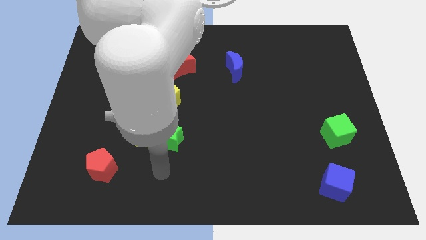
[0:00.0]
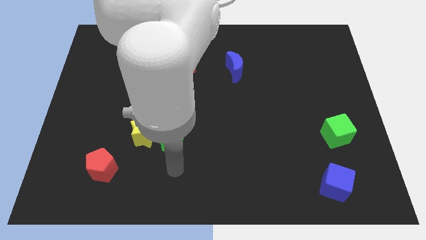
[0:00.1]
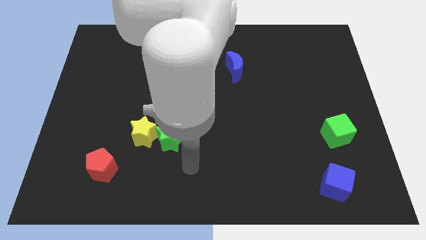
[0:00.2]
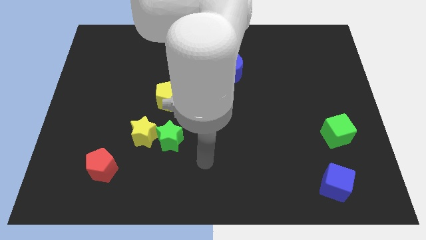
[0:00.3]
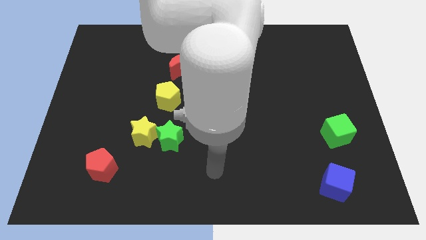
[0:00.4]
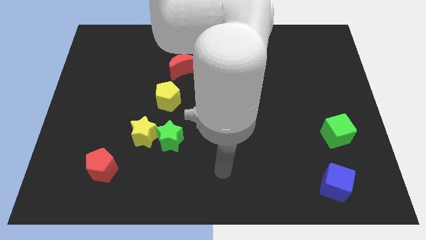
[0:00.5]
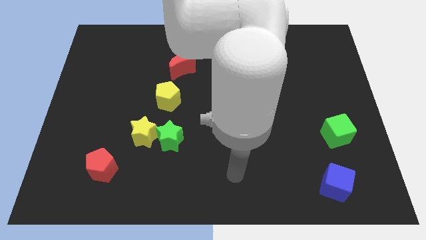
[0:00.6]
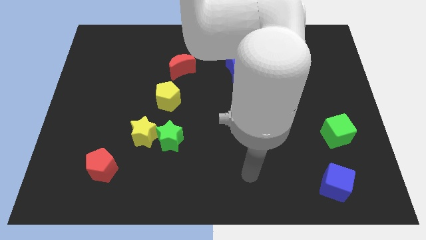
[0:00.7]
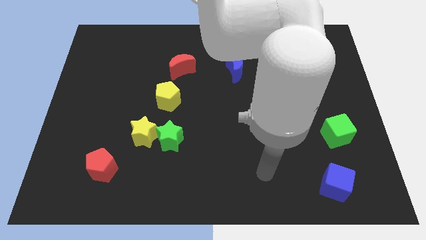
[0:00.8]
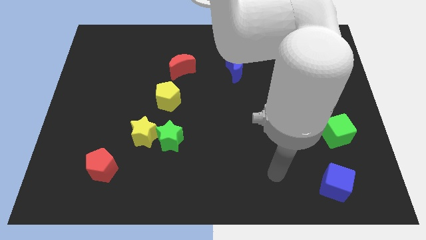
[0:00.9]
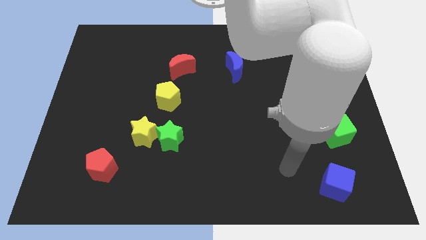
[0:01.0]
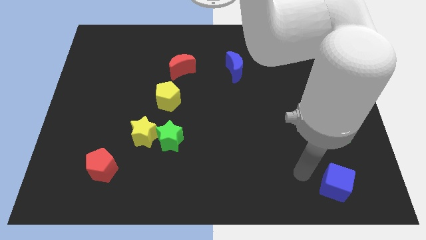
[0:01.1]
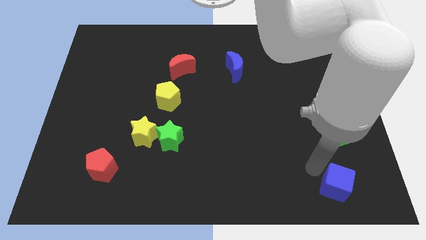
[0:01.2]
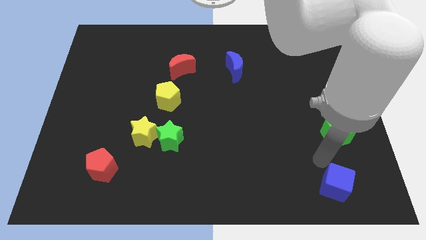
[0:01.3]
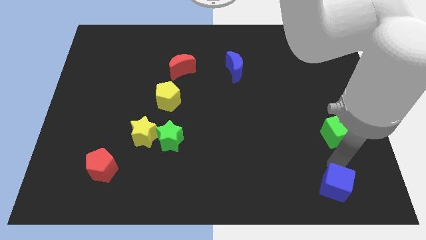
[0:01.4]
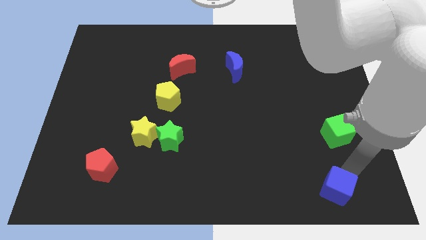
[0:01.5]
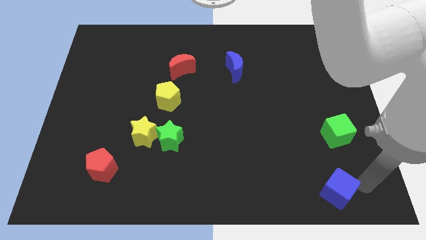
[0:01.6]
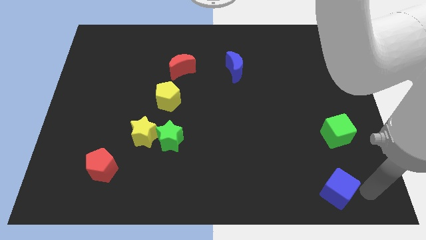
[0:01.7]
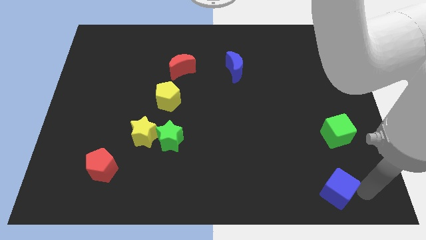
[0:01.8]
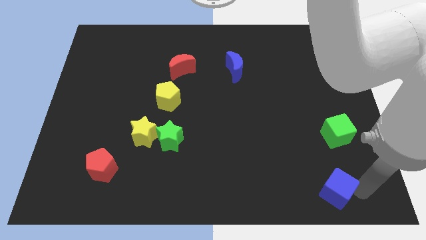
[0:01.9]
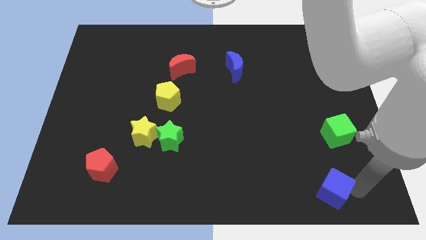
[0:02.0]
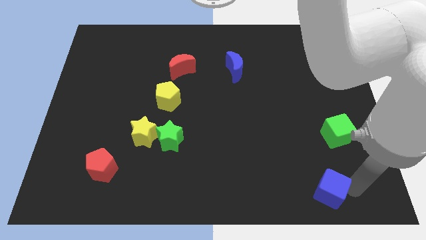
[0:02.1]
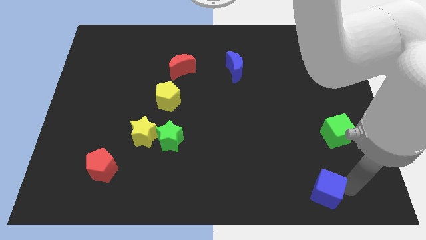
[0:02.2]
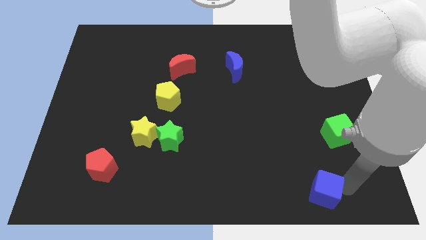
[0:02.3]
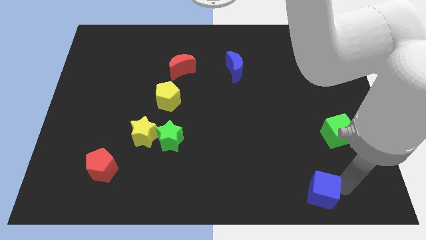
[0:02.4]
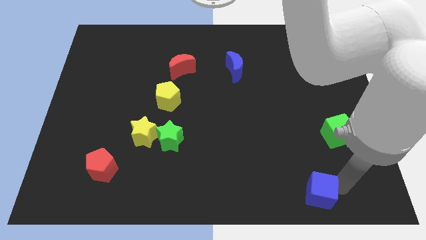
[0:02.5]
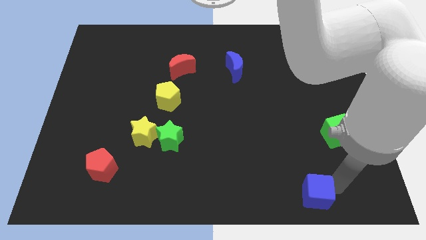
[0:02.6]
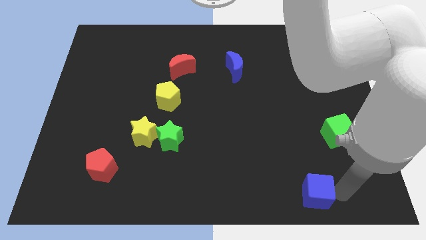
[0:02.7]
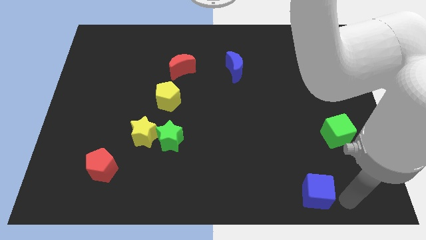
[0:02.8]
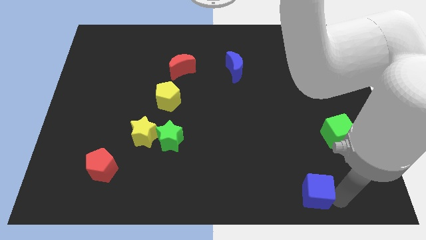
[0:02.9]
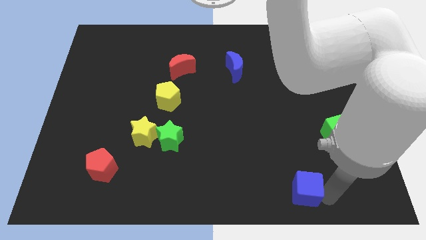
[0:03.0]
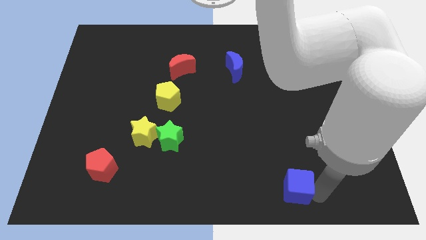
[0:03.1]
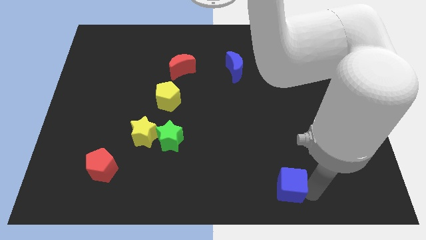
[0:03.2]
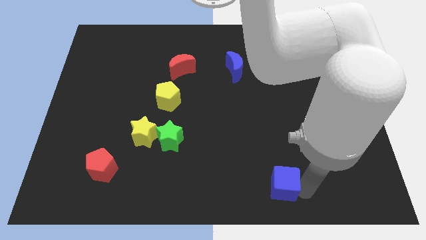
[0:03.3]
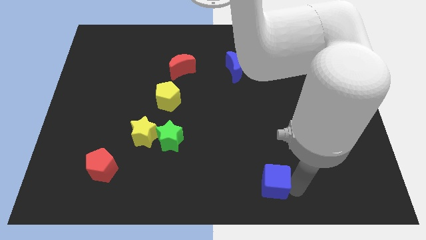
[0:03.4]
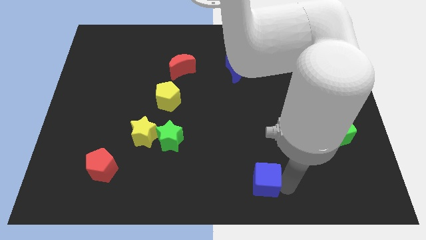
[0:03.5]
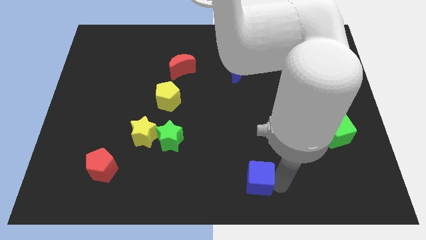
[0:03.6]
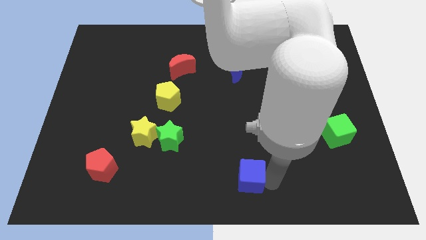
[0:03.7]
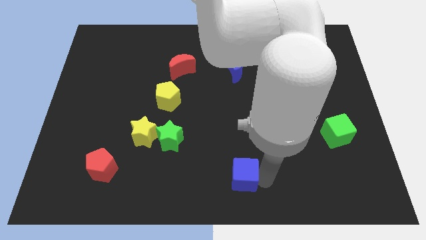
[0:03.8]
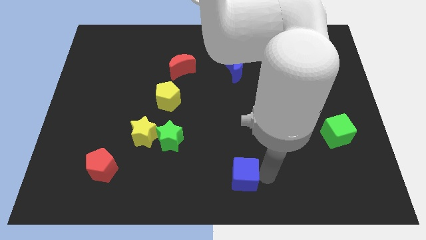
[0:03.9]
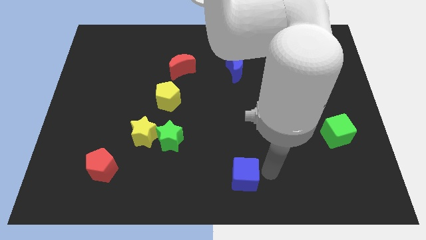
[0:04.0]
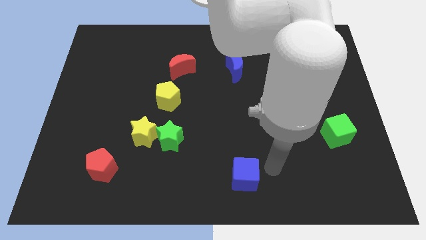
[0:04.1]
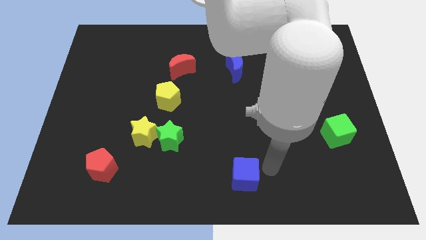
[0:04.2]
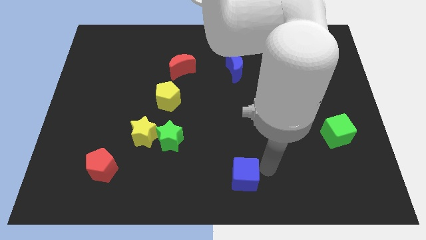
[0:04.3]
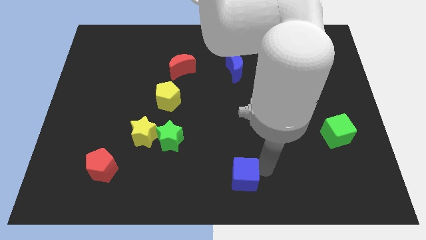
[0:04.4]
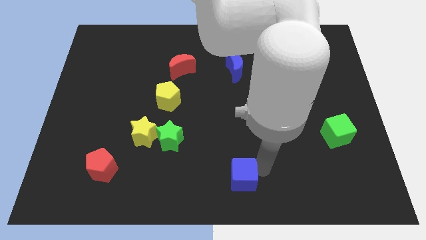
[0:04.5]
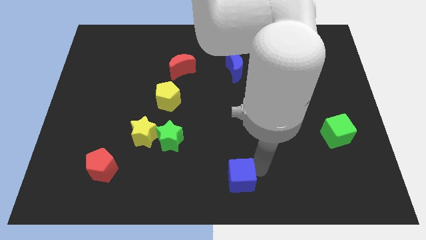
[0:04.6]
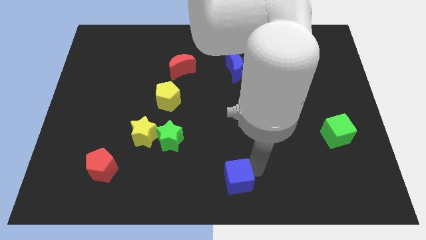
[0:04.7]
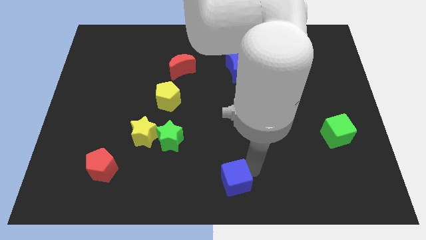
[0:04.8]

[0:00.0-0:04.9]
move the blue cube left

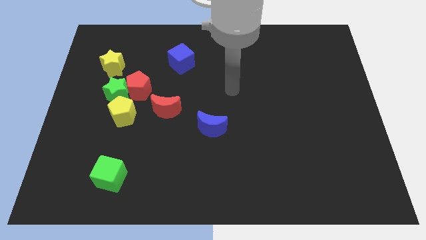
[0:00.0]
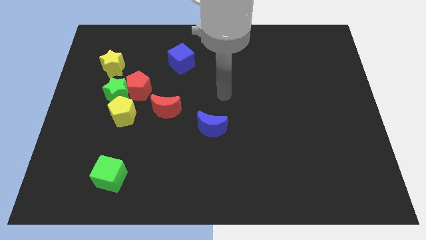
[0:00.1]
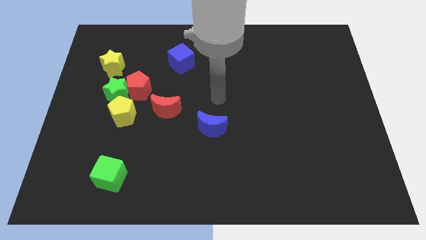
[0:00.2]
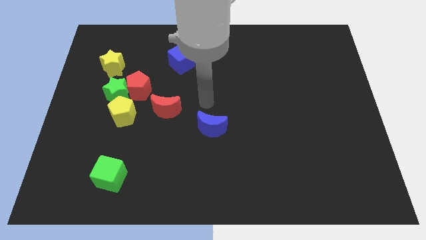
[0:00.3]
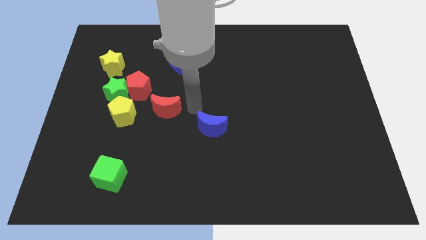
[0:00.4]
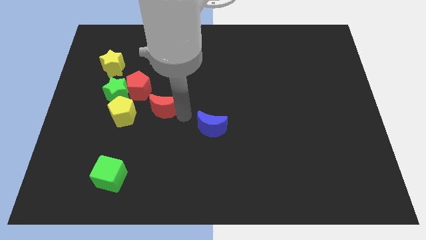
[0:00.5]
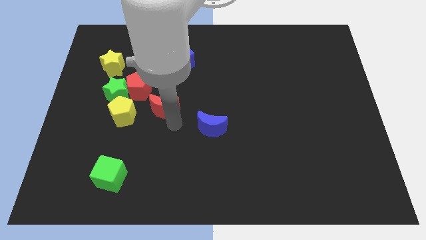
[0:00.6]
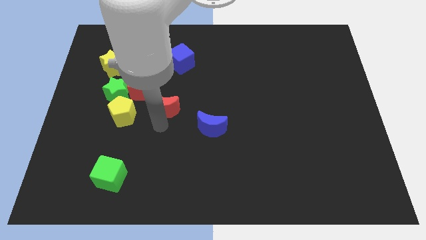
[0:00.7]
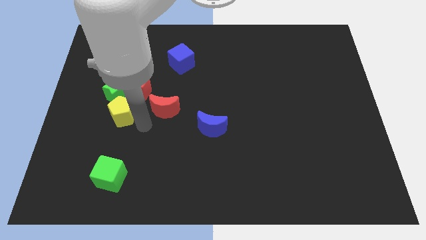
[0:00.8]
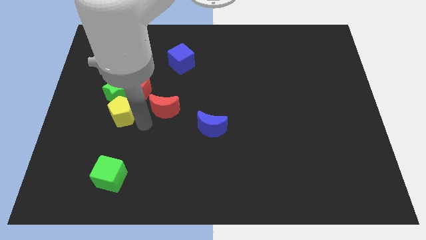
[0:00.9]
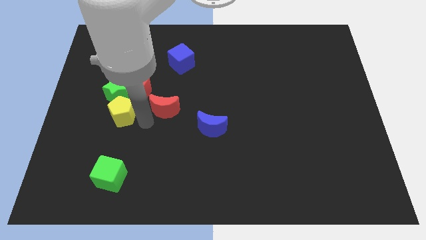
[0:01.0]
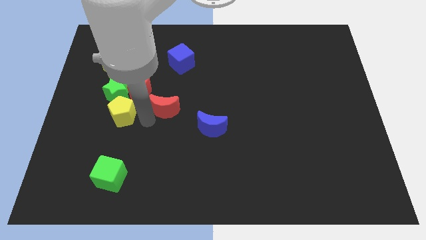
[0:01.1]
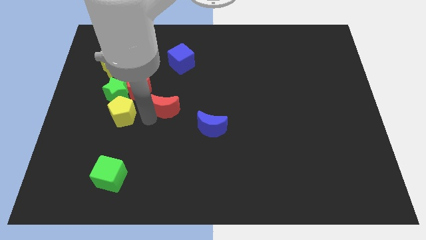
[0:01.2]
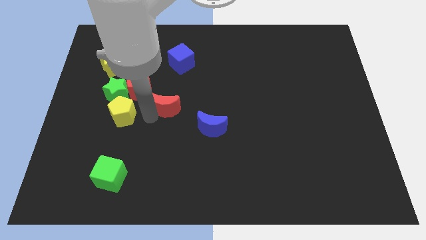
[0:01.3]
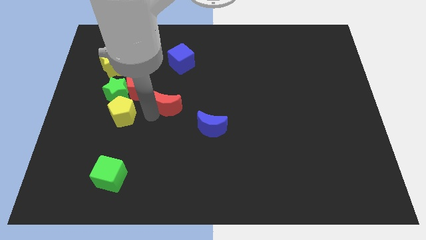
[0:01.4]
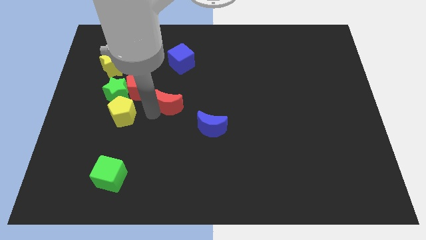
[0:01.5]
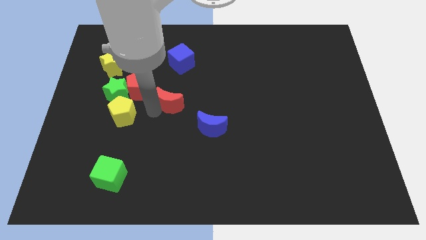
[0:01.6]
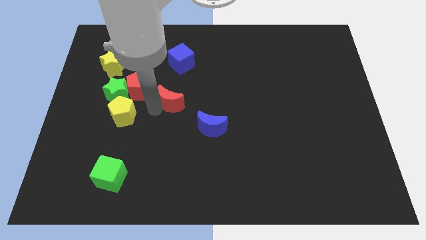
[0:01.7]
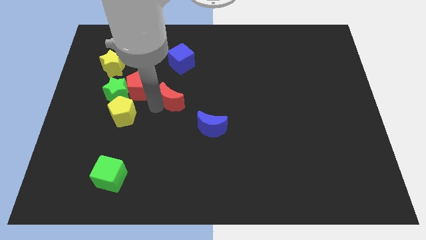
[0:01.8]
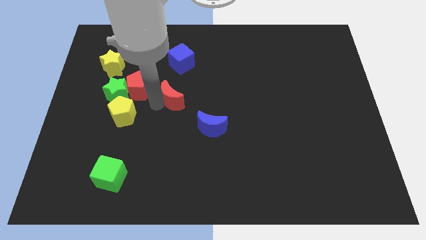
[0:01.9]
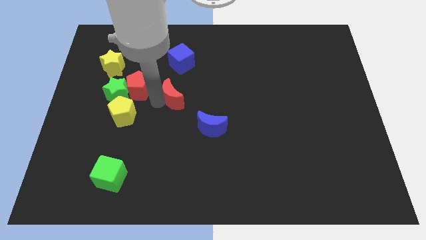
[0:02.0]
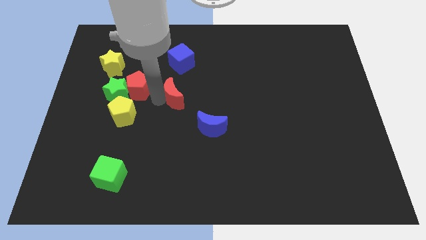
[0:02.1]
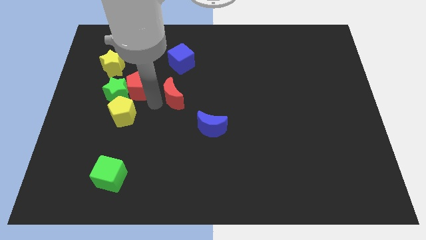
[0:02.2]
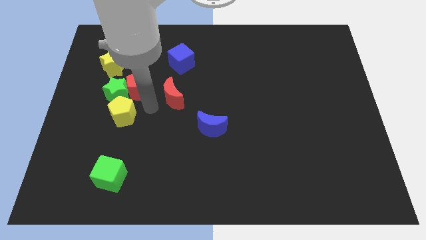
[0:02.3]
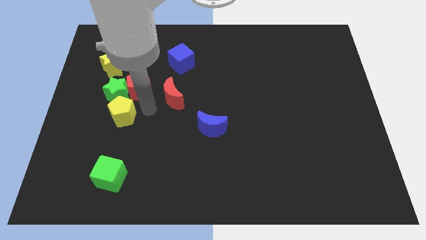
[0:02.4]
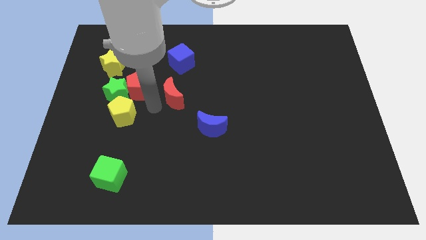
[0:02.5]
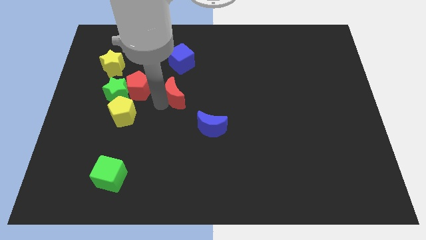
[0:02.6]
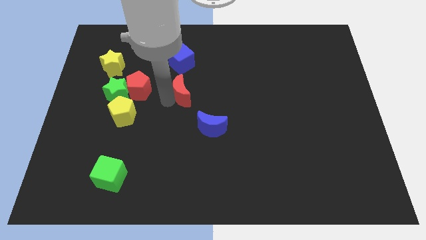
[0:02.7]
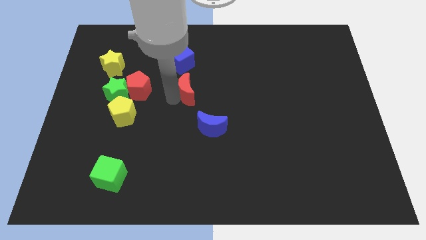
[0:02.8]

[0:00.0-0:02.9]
push the red moon a bit up and to the right
